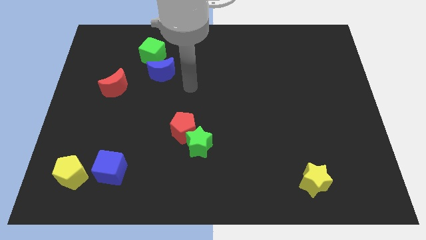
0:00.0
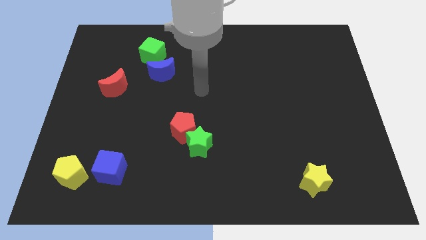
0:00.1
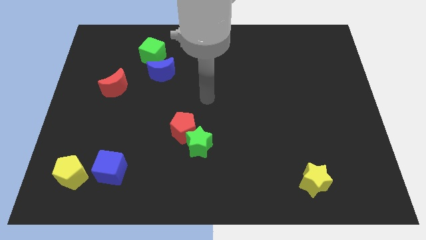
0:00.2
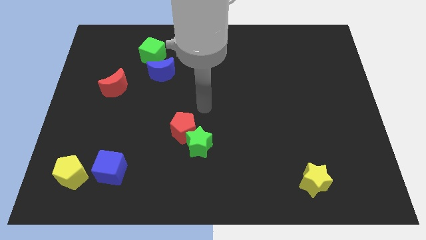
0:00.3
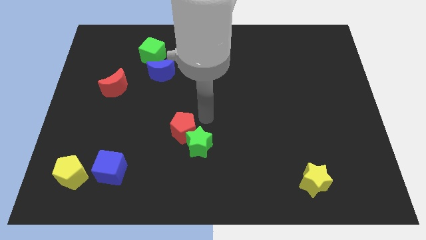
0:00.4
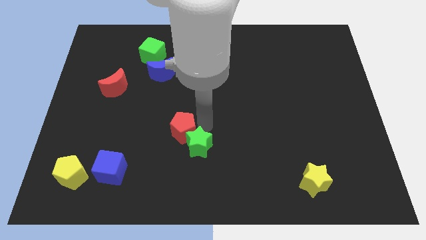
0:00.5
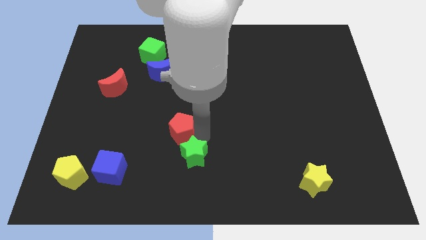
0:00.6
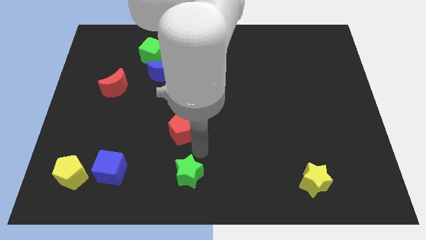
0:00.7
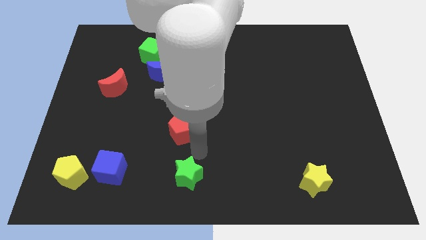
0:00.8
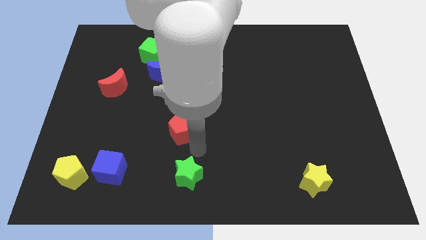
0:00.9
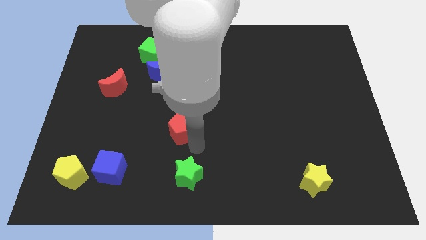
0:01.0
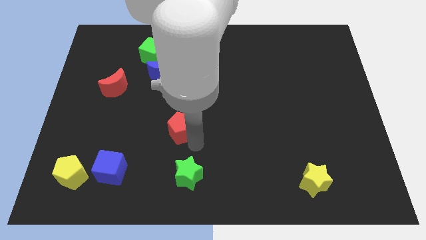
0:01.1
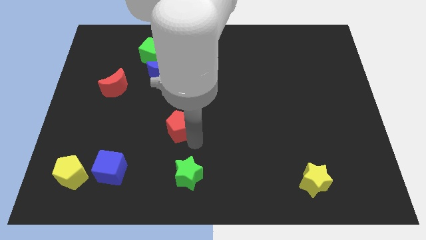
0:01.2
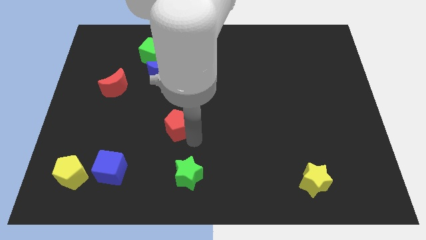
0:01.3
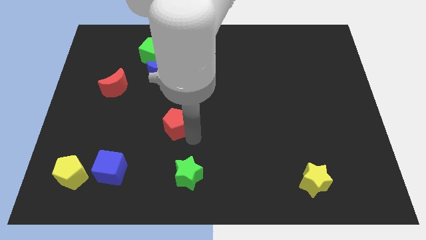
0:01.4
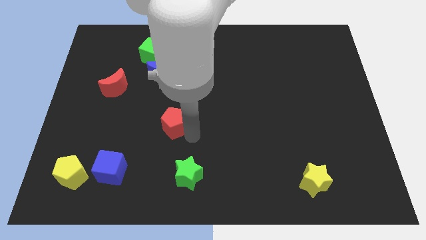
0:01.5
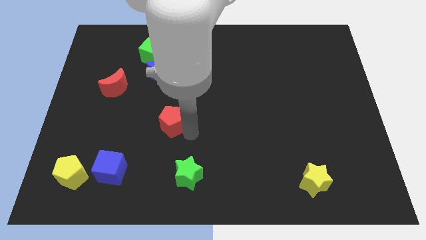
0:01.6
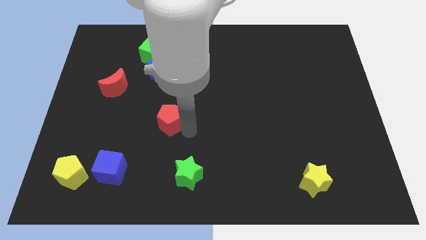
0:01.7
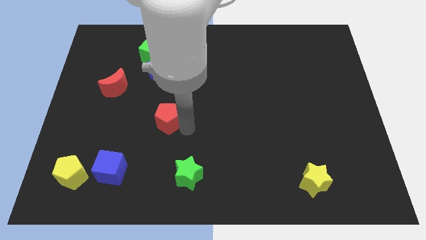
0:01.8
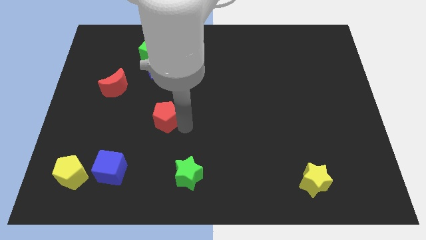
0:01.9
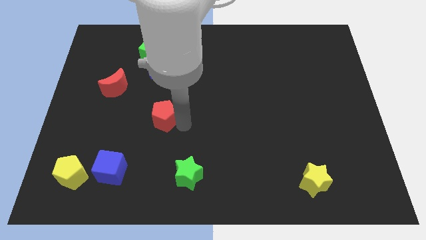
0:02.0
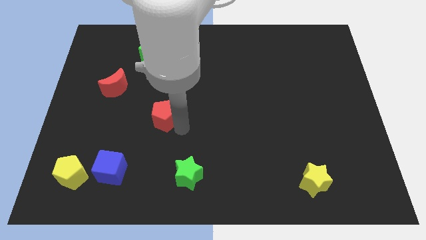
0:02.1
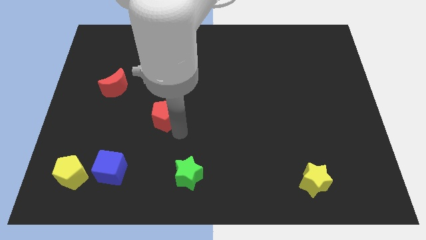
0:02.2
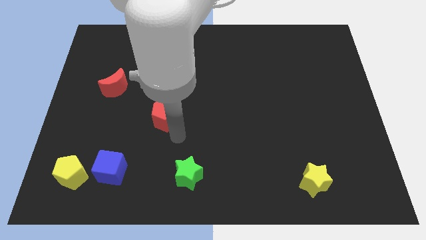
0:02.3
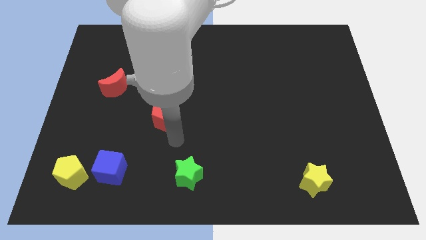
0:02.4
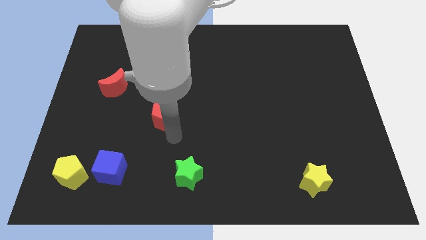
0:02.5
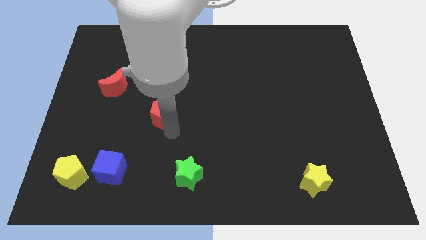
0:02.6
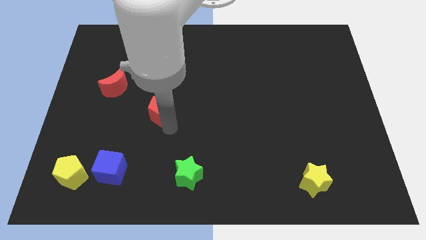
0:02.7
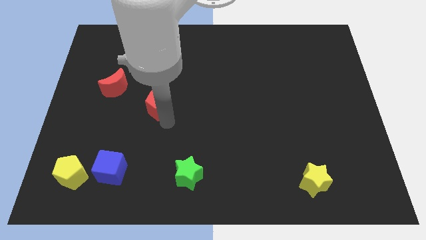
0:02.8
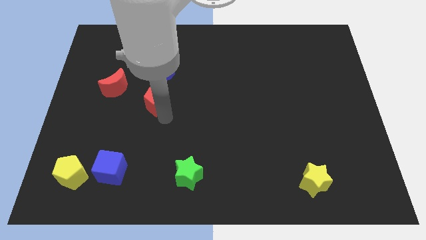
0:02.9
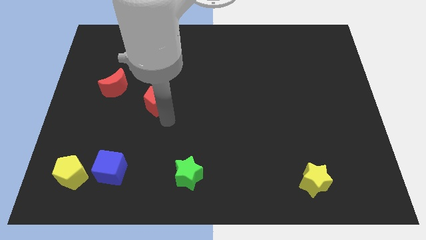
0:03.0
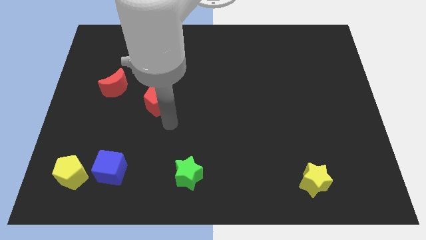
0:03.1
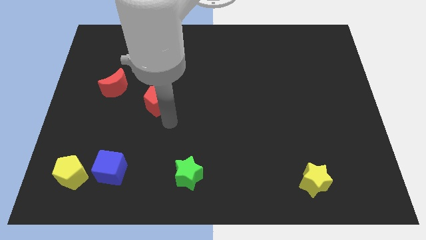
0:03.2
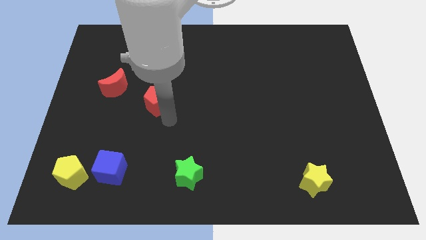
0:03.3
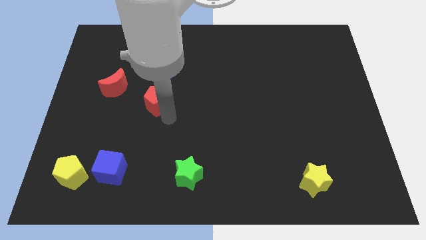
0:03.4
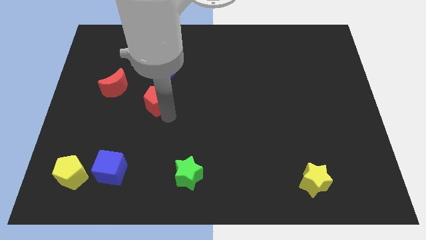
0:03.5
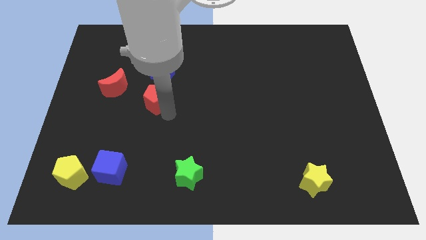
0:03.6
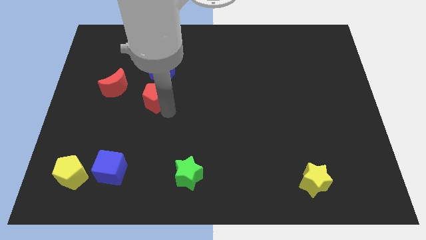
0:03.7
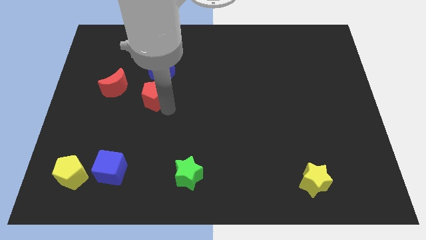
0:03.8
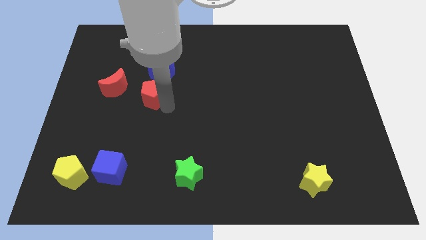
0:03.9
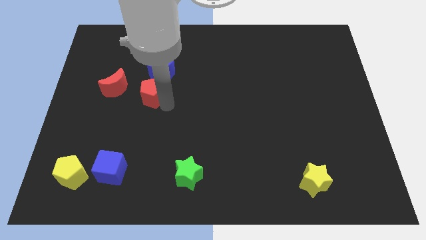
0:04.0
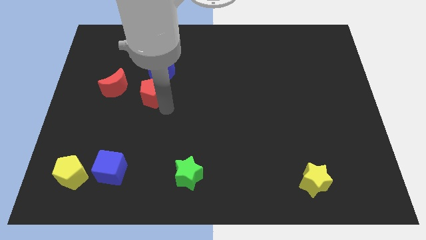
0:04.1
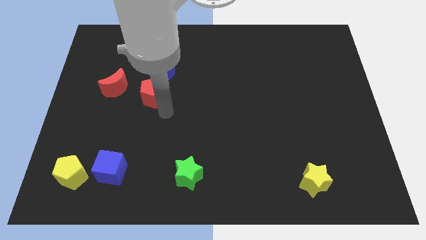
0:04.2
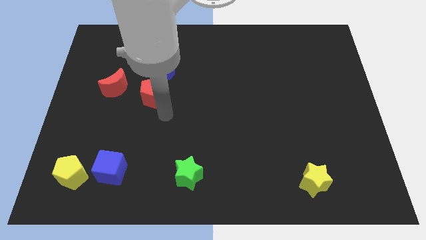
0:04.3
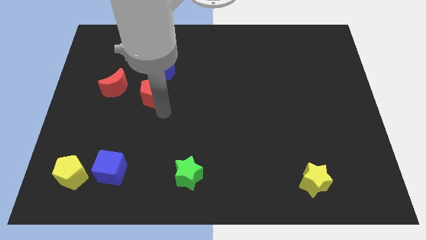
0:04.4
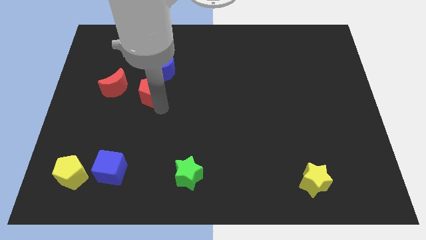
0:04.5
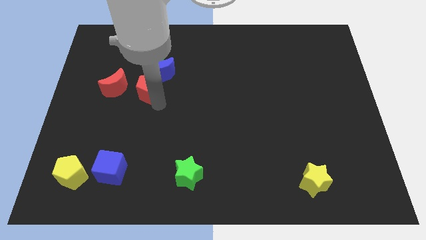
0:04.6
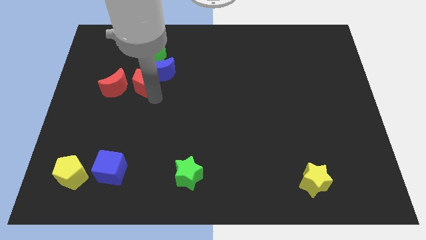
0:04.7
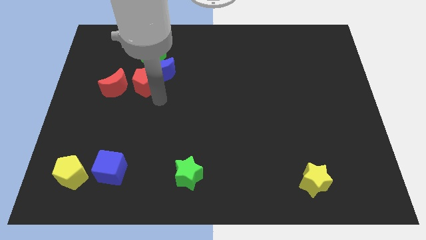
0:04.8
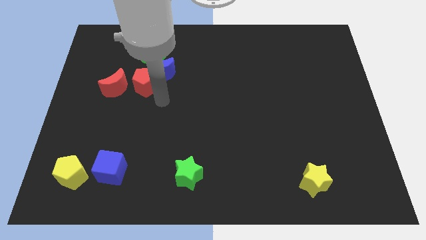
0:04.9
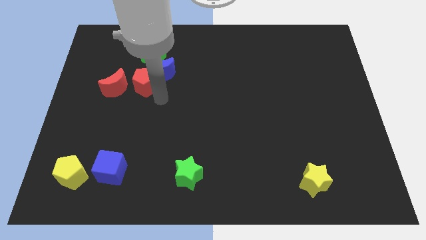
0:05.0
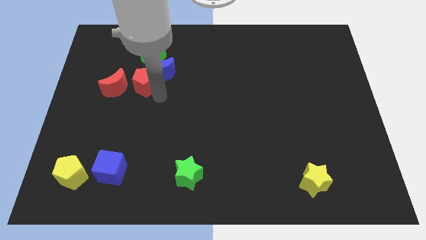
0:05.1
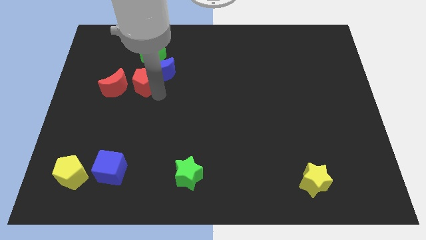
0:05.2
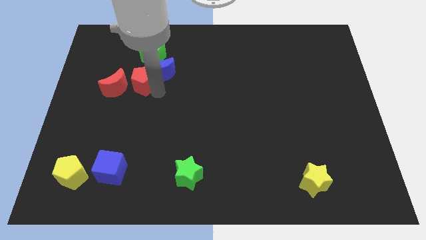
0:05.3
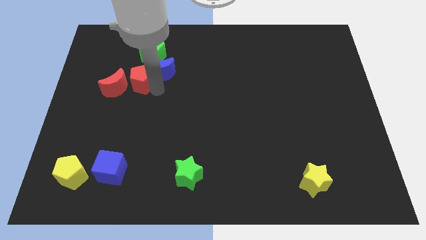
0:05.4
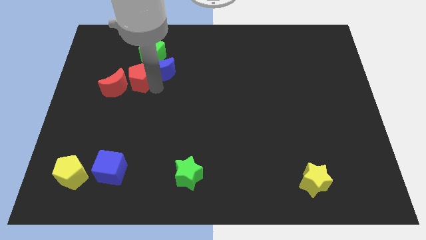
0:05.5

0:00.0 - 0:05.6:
put the red pentagon diagonally down and to the left of the green cube

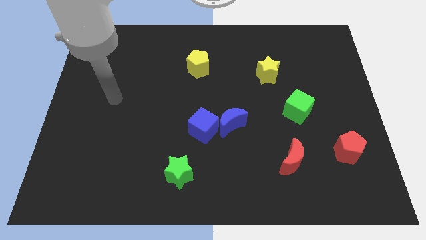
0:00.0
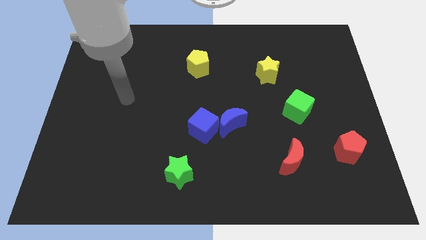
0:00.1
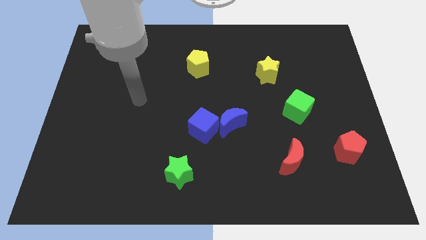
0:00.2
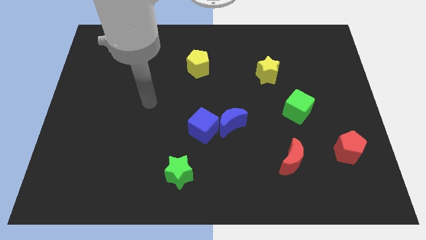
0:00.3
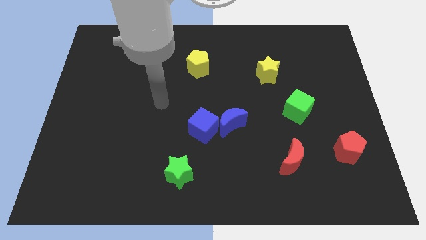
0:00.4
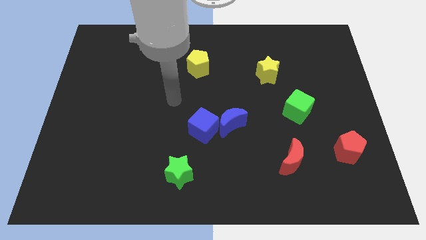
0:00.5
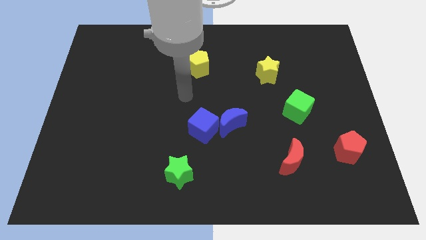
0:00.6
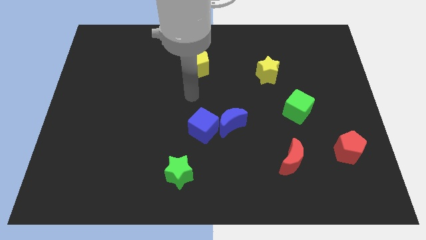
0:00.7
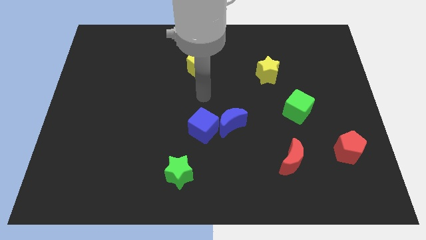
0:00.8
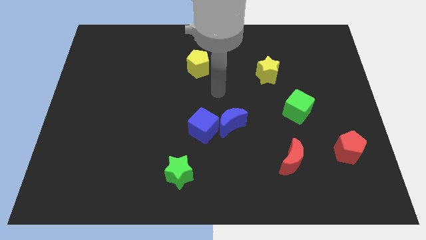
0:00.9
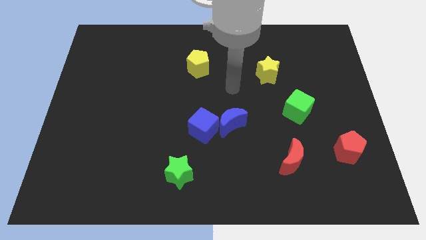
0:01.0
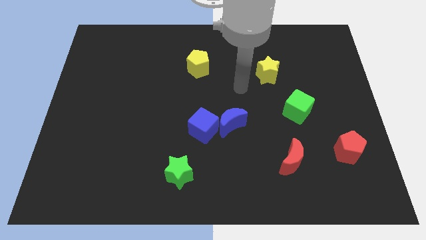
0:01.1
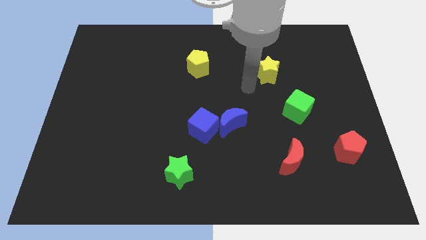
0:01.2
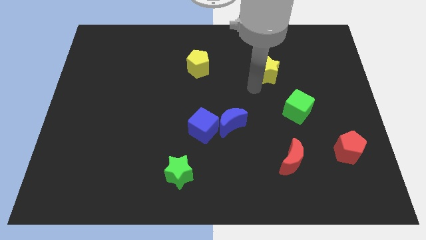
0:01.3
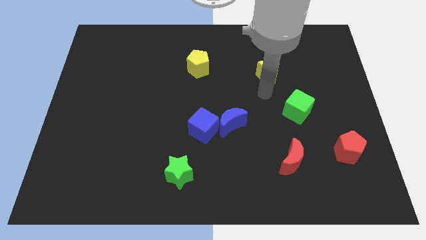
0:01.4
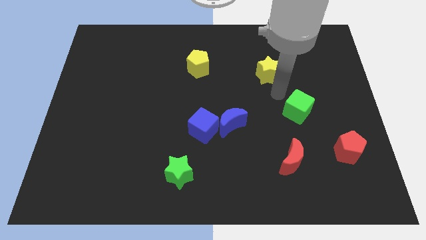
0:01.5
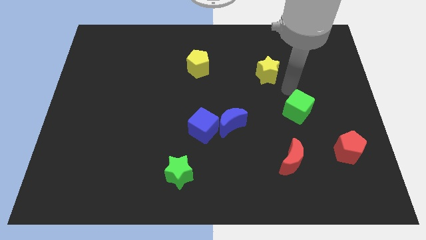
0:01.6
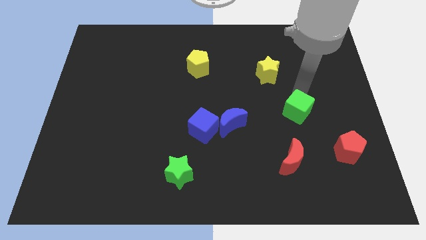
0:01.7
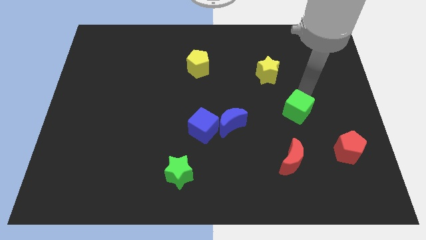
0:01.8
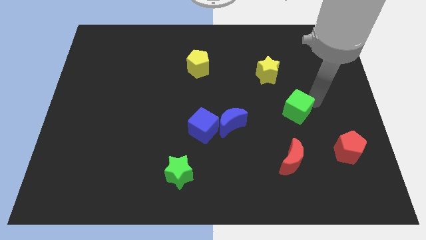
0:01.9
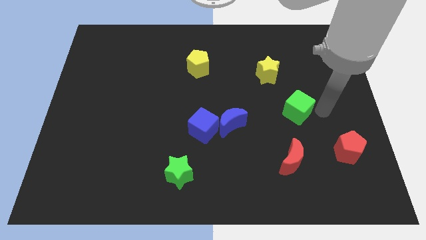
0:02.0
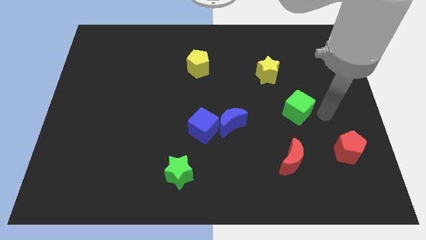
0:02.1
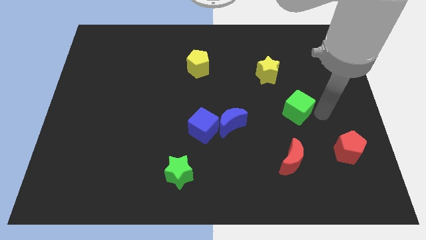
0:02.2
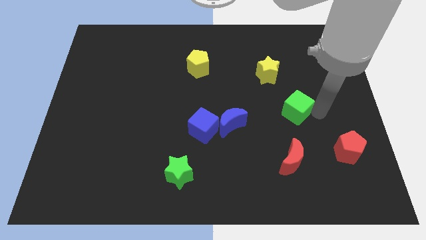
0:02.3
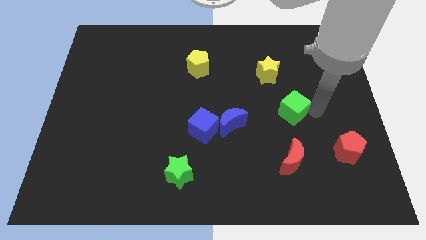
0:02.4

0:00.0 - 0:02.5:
move the green cube below the yellow star

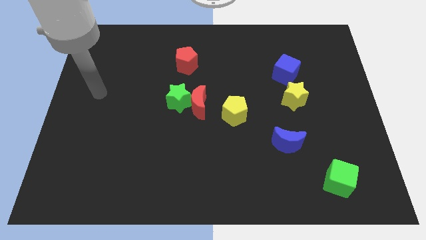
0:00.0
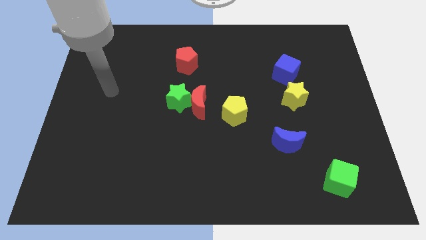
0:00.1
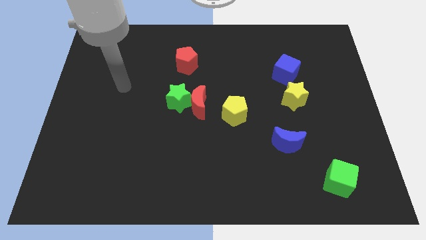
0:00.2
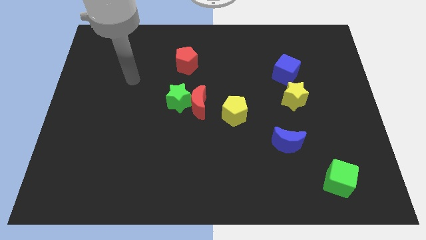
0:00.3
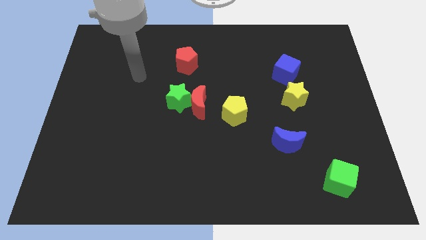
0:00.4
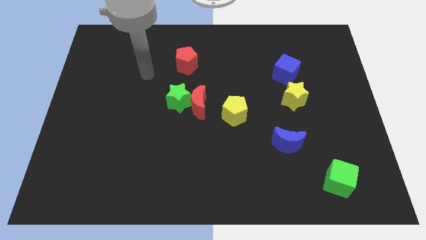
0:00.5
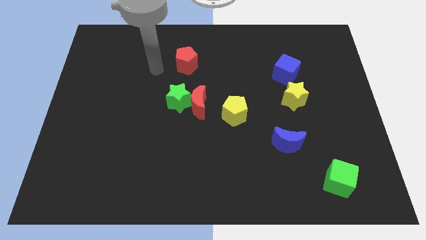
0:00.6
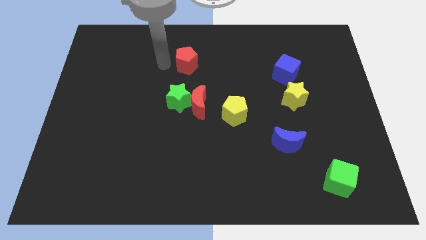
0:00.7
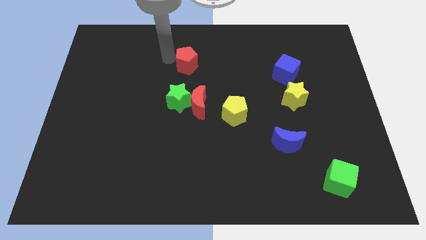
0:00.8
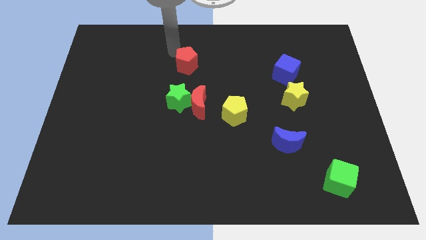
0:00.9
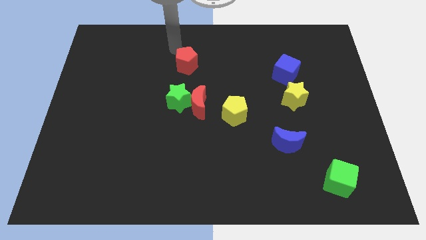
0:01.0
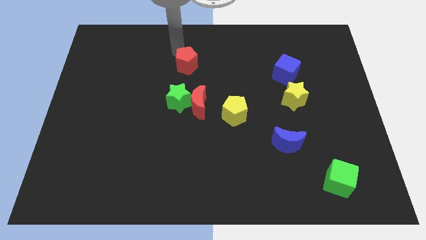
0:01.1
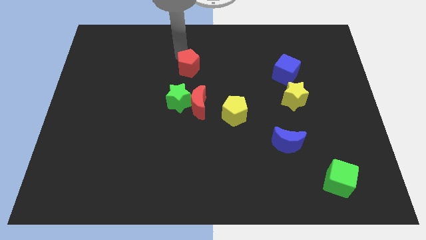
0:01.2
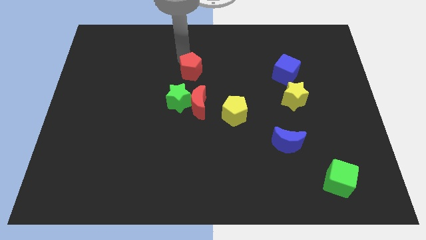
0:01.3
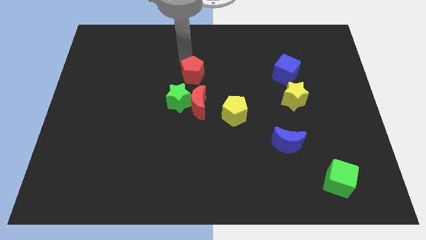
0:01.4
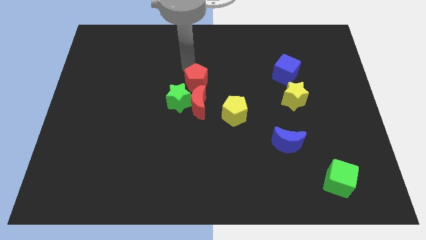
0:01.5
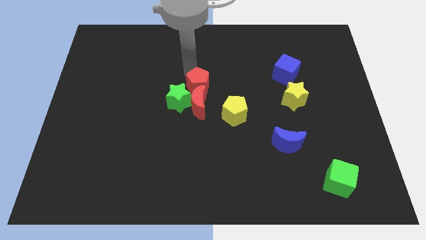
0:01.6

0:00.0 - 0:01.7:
put the red pentagon to the top right side of the red moon
